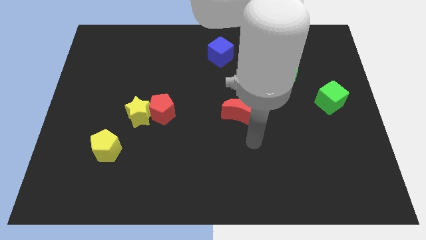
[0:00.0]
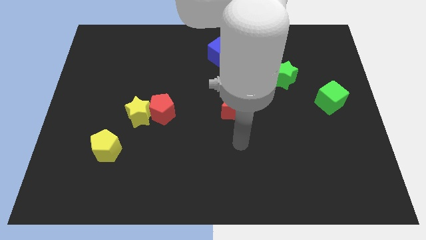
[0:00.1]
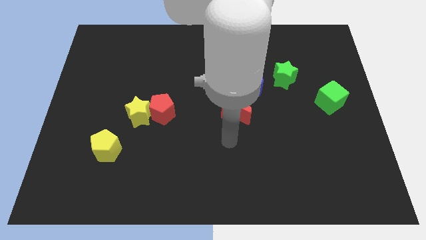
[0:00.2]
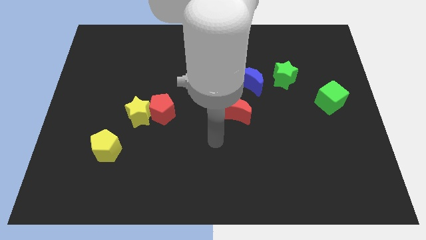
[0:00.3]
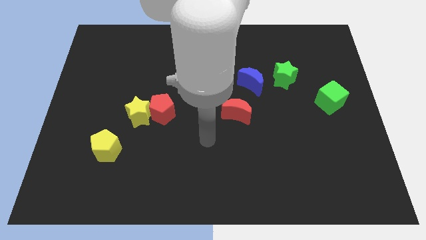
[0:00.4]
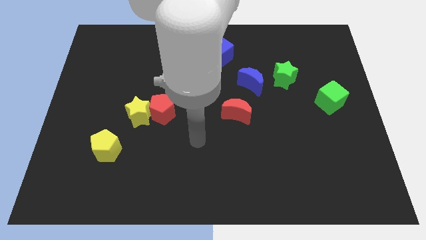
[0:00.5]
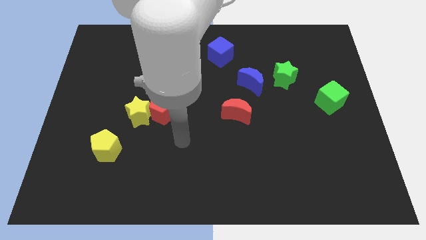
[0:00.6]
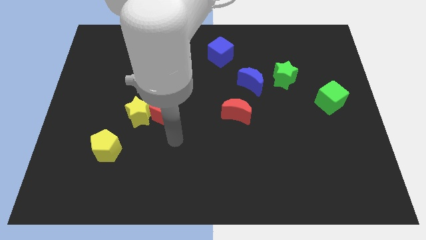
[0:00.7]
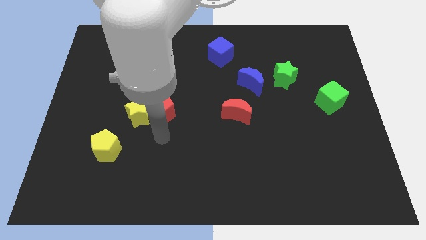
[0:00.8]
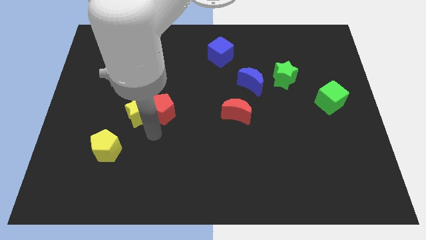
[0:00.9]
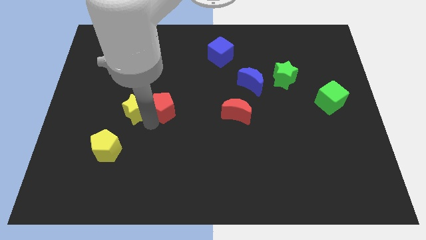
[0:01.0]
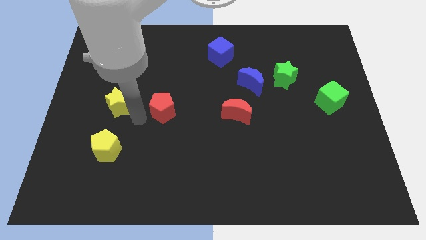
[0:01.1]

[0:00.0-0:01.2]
separate the red pentagon from the yellow star

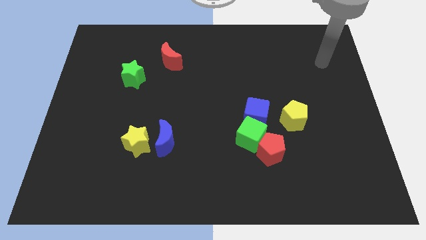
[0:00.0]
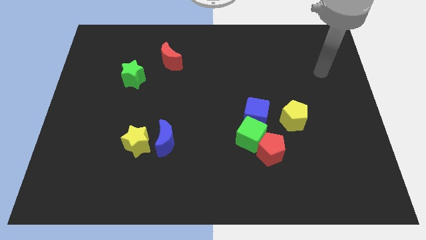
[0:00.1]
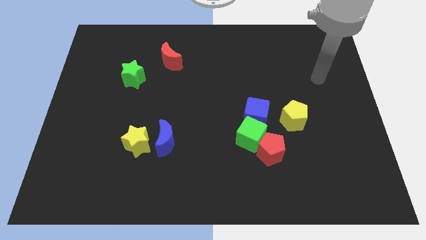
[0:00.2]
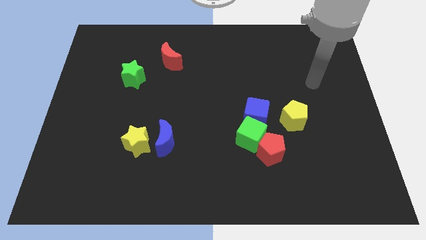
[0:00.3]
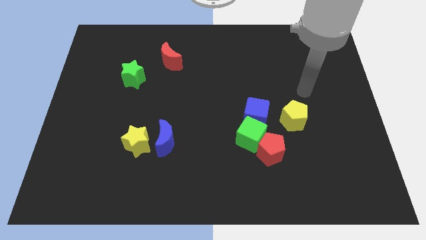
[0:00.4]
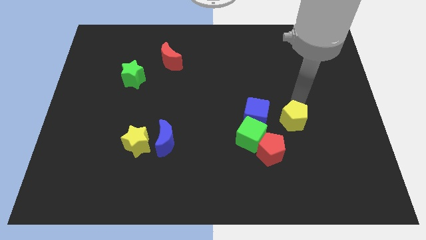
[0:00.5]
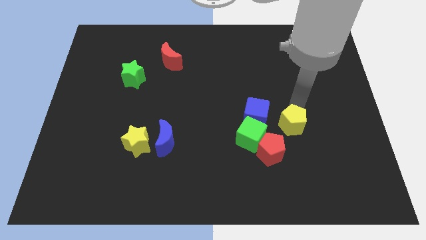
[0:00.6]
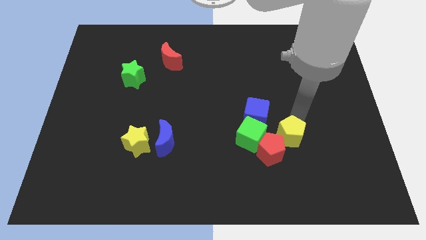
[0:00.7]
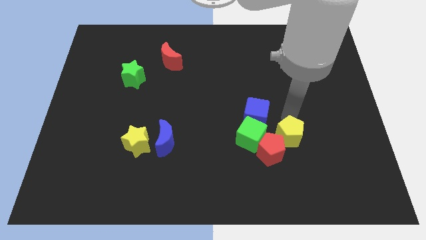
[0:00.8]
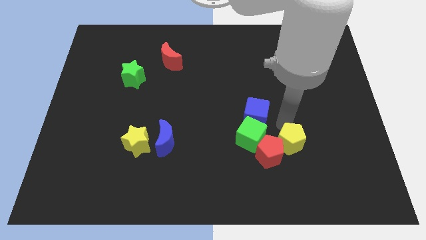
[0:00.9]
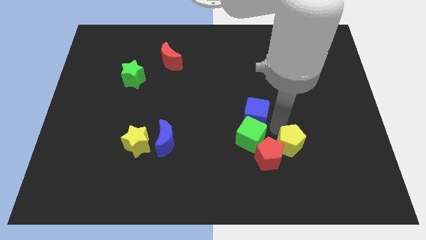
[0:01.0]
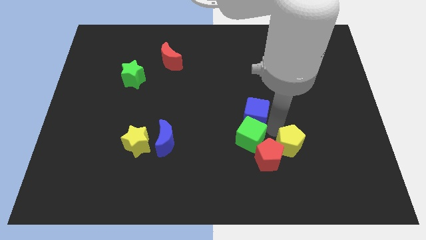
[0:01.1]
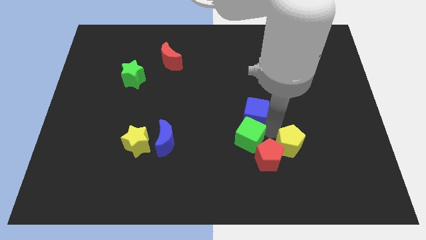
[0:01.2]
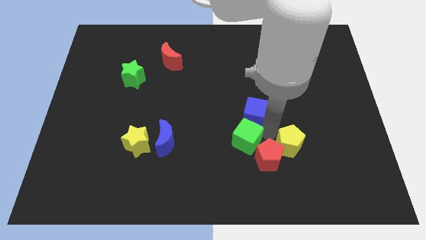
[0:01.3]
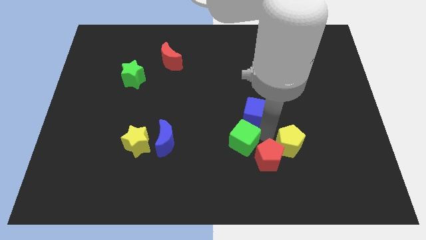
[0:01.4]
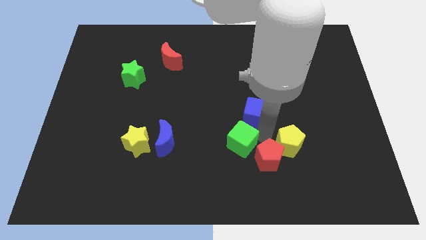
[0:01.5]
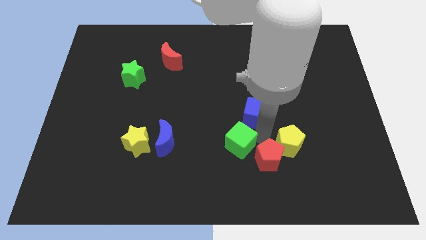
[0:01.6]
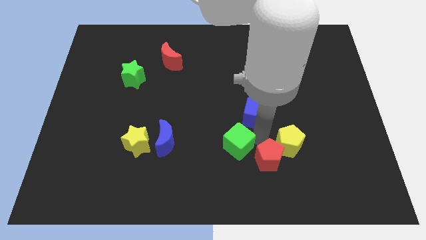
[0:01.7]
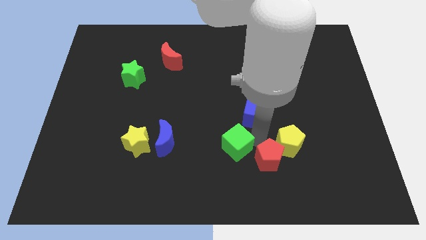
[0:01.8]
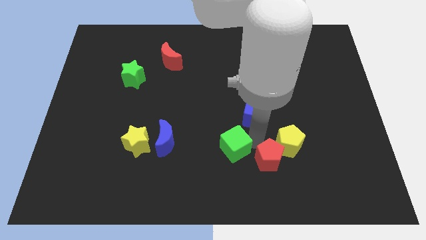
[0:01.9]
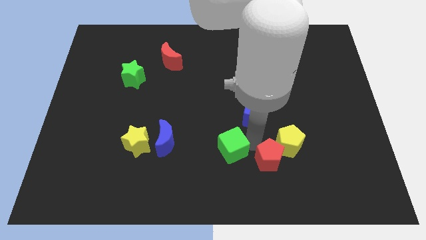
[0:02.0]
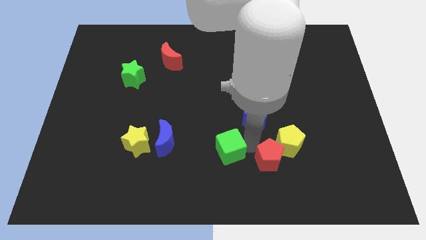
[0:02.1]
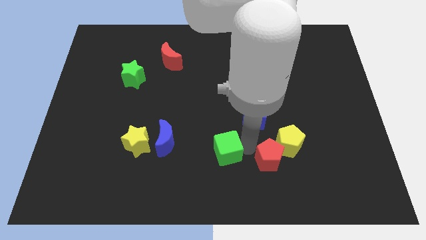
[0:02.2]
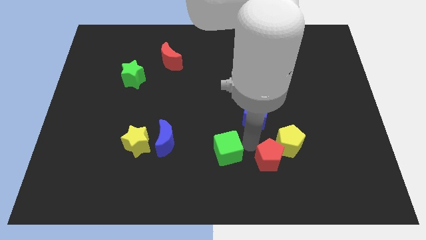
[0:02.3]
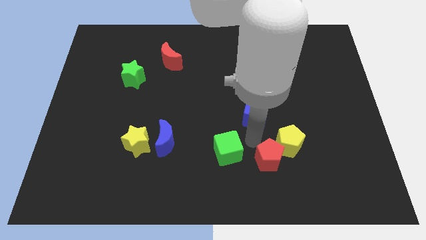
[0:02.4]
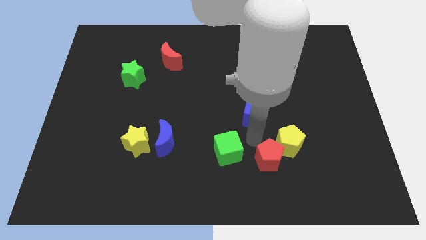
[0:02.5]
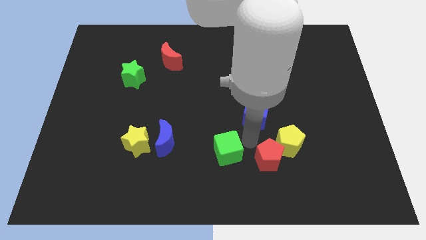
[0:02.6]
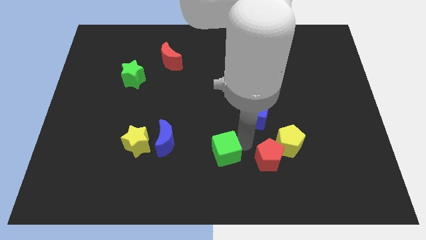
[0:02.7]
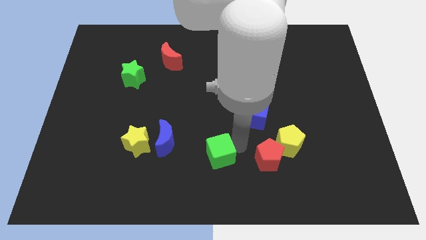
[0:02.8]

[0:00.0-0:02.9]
separate the green cube from the red pentagon and blue cube

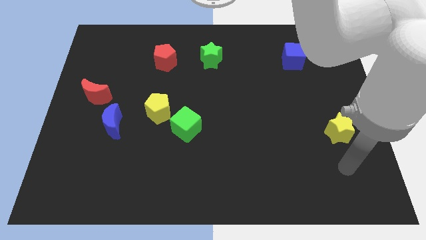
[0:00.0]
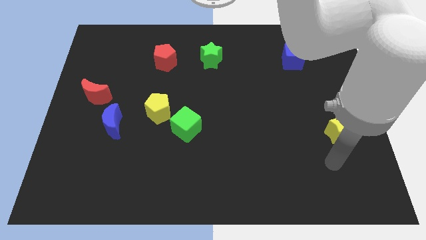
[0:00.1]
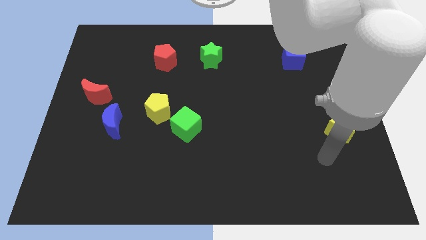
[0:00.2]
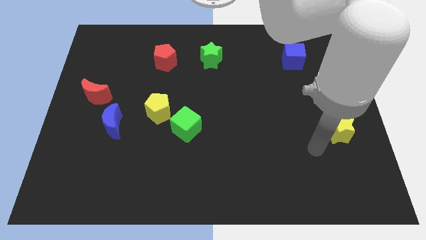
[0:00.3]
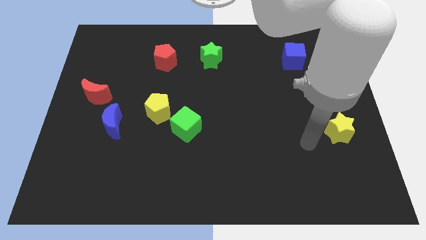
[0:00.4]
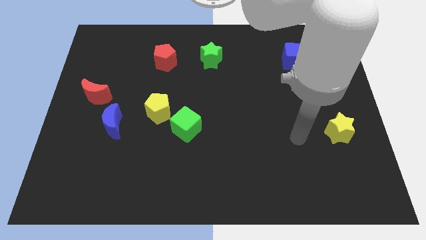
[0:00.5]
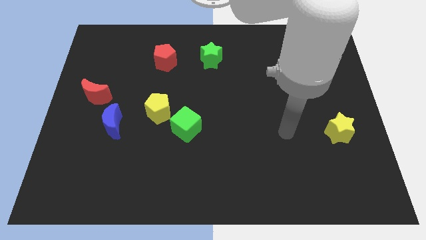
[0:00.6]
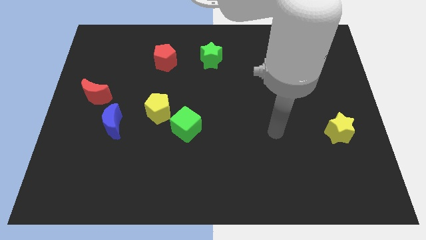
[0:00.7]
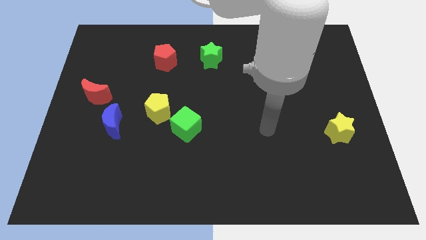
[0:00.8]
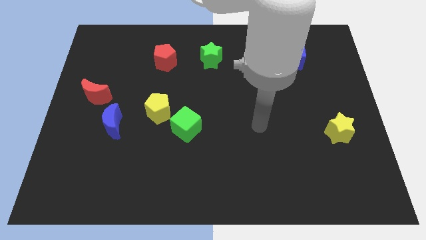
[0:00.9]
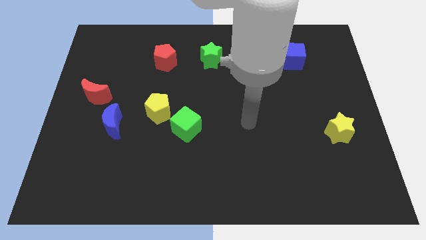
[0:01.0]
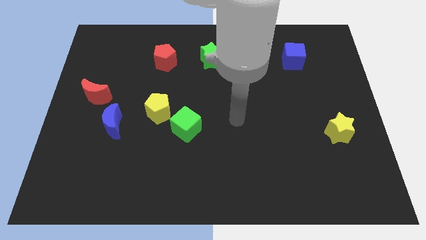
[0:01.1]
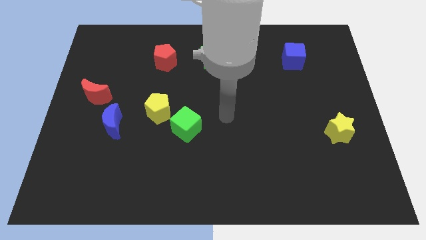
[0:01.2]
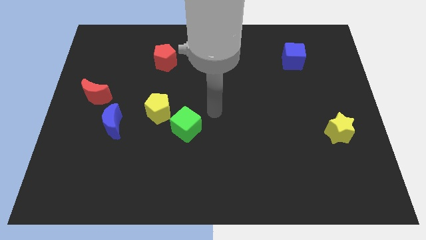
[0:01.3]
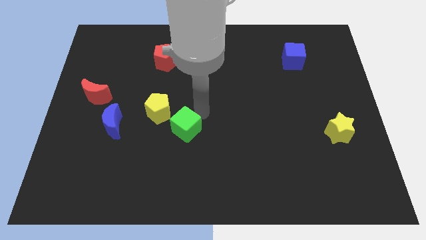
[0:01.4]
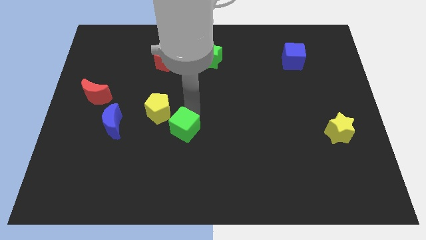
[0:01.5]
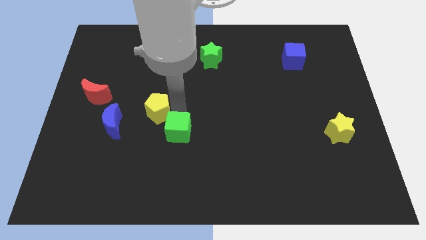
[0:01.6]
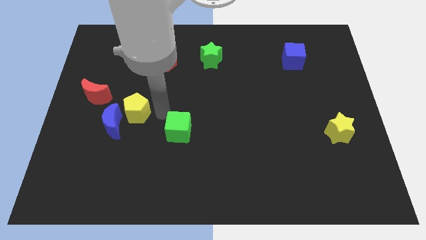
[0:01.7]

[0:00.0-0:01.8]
pull the green cube apart from the yellow pentagon

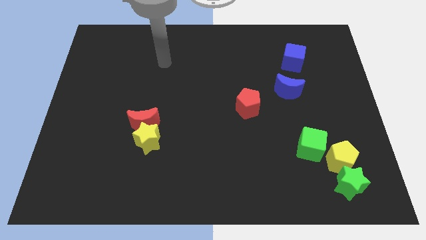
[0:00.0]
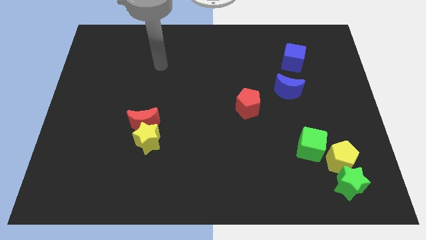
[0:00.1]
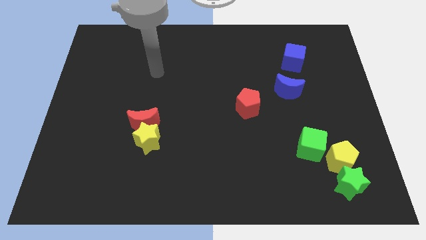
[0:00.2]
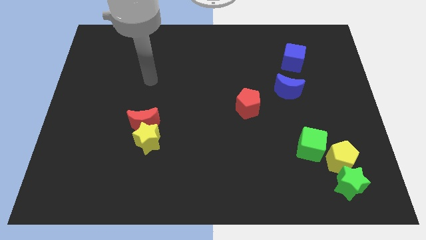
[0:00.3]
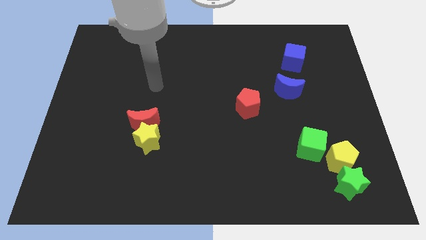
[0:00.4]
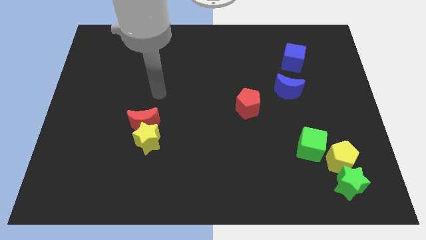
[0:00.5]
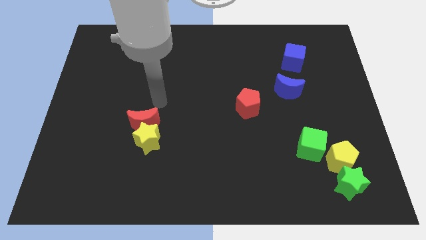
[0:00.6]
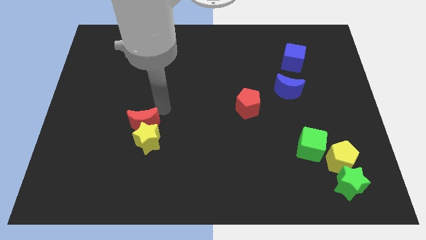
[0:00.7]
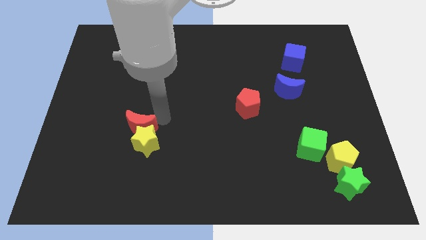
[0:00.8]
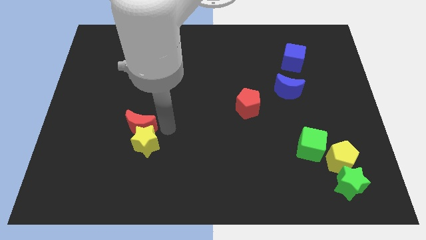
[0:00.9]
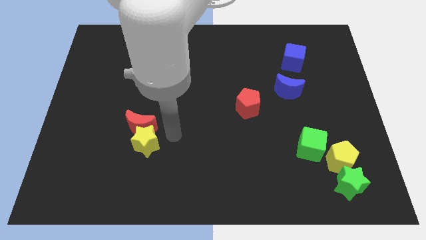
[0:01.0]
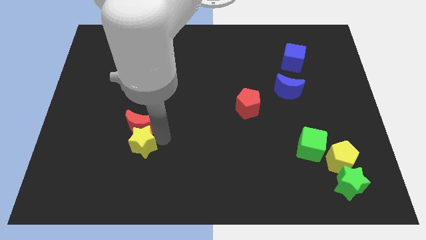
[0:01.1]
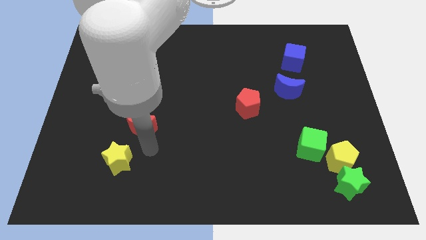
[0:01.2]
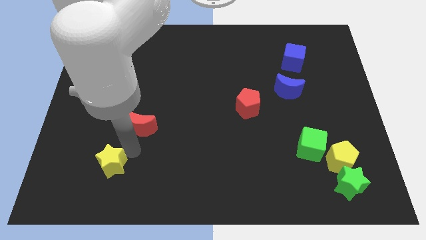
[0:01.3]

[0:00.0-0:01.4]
separate the red moon from the yellow star

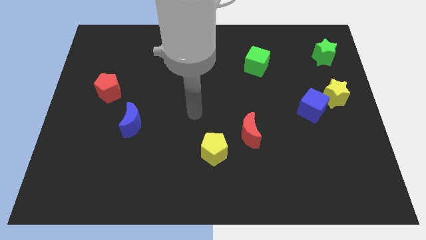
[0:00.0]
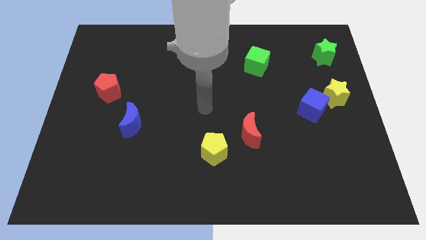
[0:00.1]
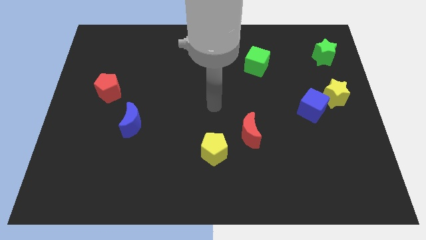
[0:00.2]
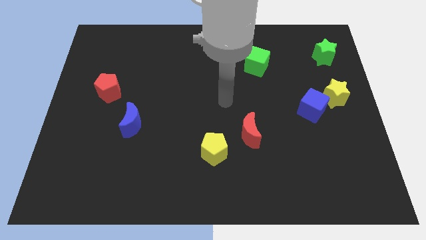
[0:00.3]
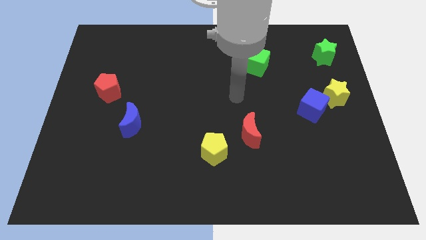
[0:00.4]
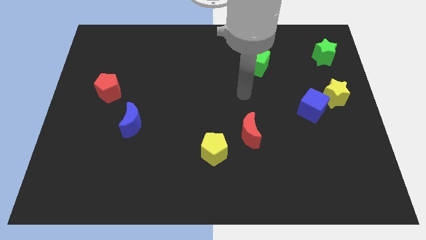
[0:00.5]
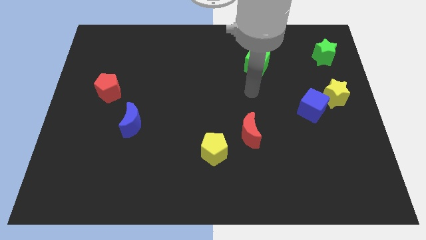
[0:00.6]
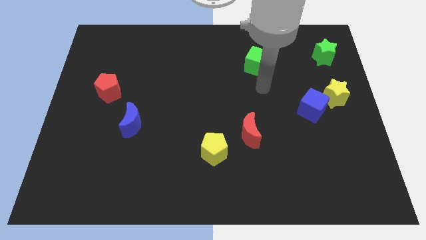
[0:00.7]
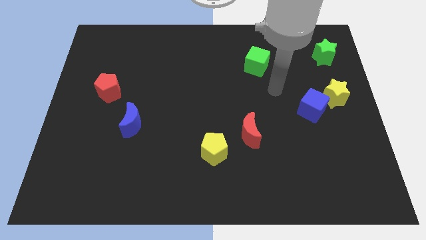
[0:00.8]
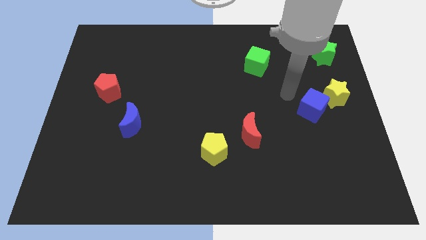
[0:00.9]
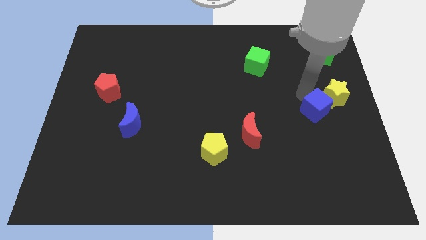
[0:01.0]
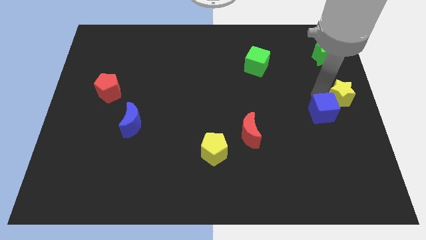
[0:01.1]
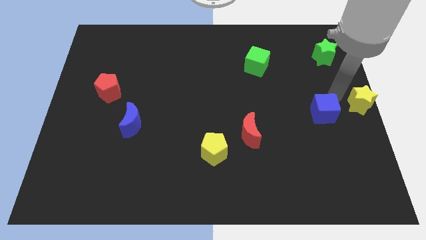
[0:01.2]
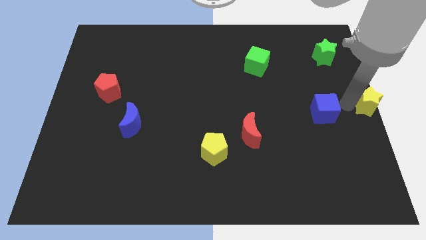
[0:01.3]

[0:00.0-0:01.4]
pull the blue cube apart from the yellow star

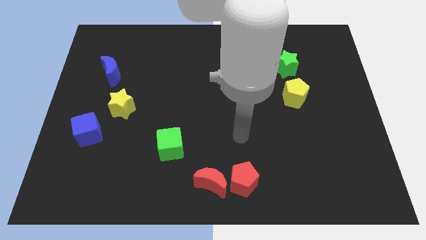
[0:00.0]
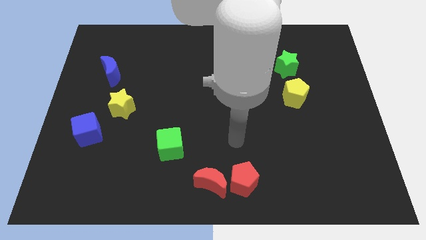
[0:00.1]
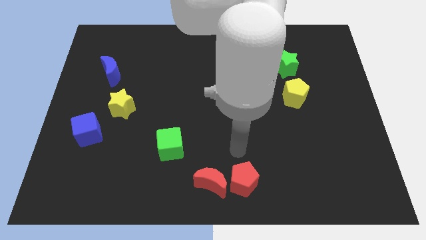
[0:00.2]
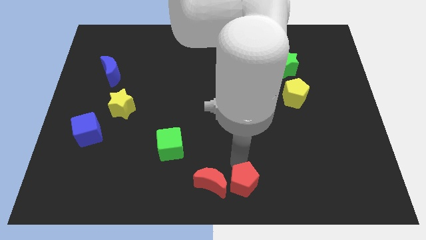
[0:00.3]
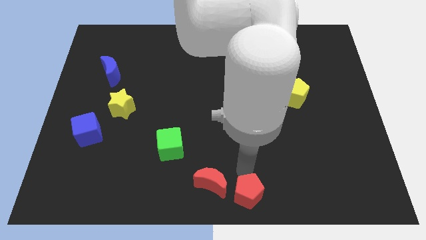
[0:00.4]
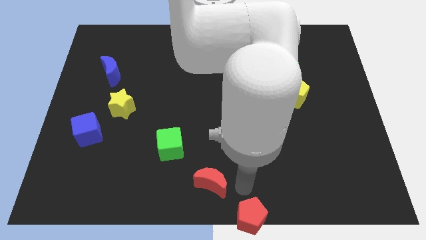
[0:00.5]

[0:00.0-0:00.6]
move the red moon away from the red pentagon
